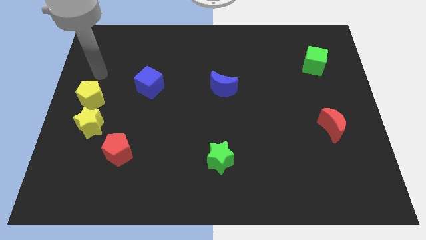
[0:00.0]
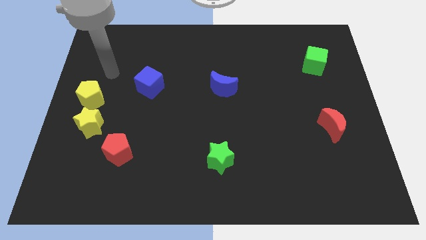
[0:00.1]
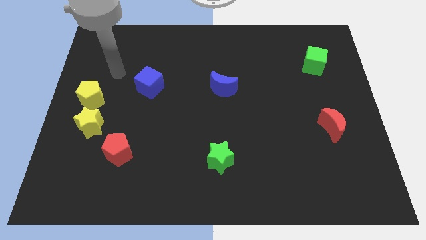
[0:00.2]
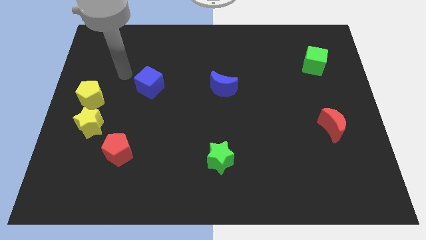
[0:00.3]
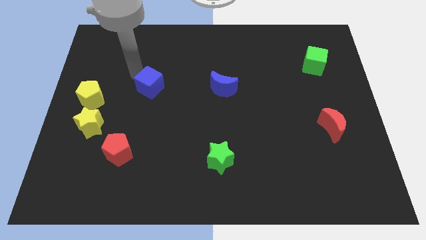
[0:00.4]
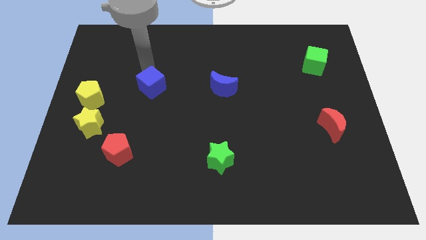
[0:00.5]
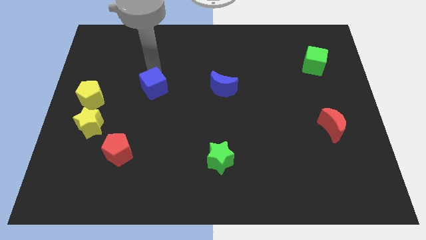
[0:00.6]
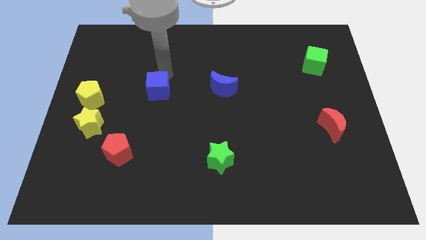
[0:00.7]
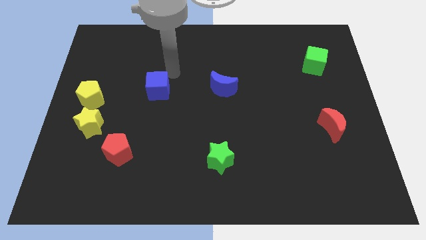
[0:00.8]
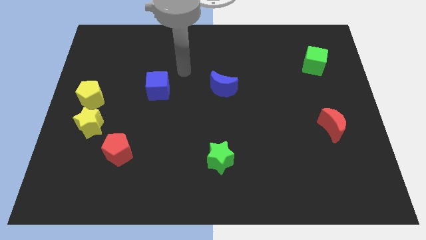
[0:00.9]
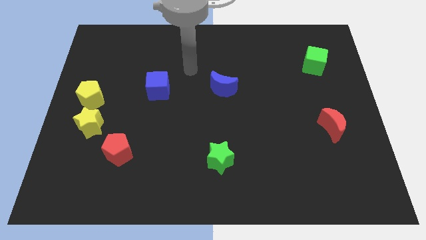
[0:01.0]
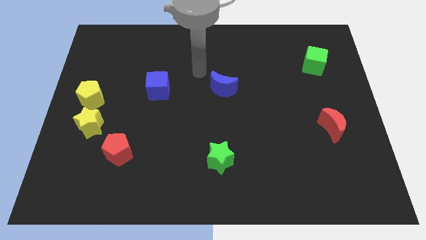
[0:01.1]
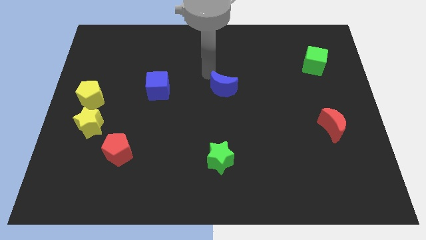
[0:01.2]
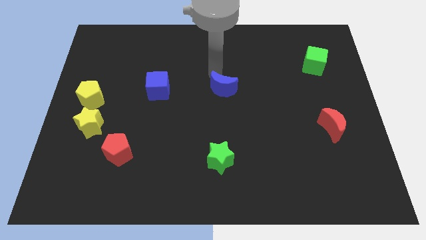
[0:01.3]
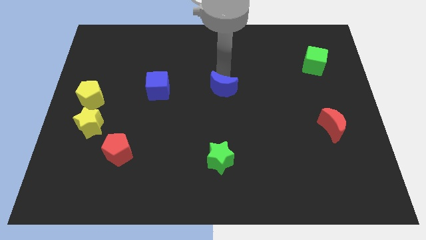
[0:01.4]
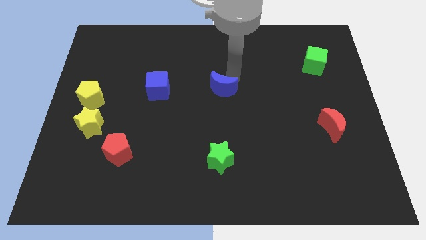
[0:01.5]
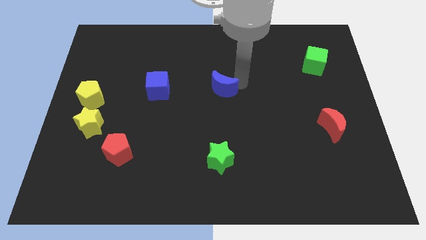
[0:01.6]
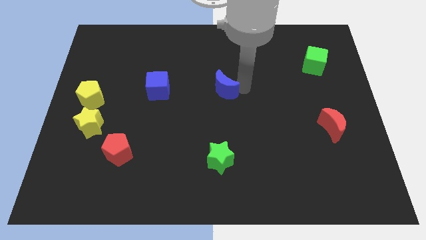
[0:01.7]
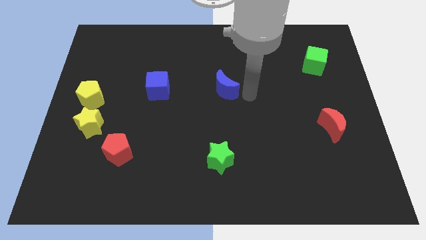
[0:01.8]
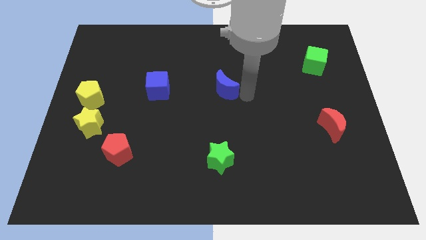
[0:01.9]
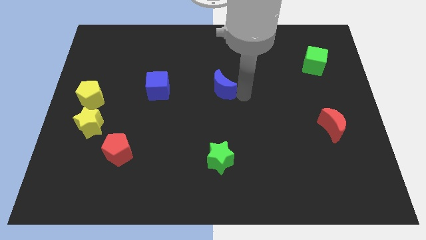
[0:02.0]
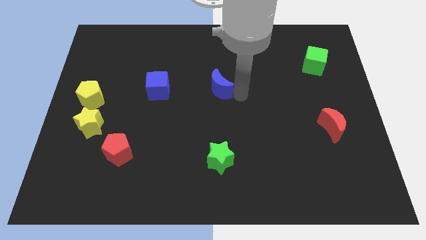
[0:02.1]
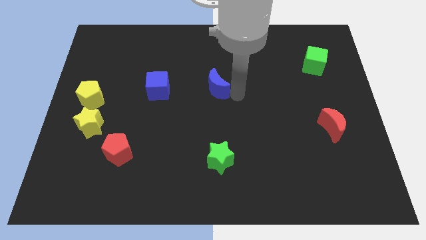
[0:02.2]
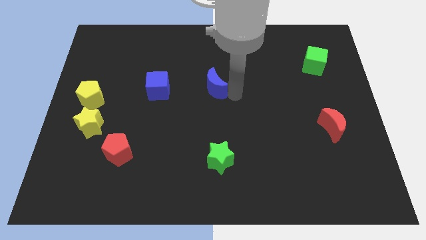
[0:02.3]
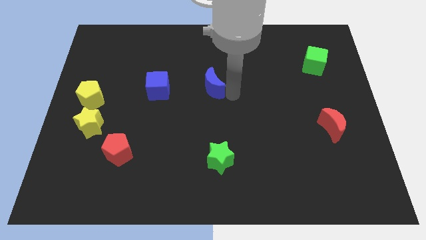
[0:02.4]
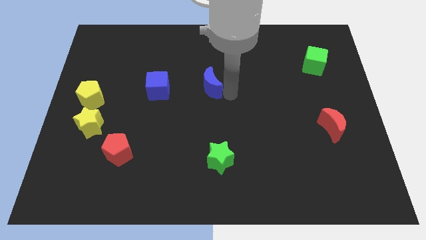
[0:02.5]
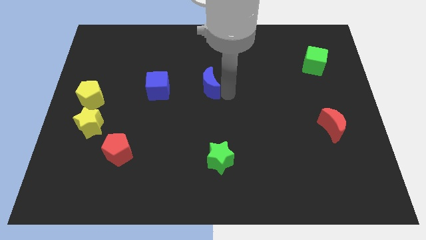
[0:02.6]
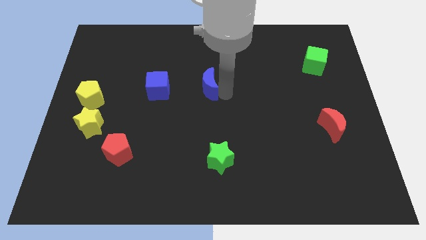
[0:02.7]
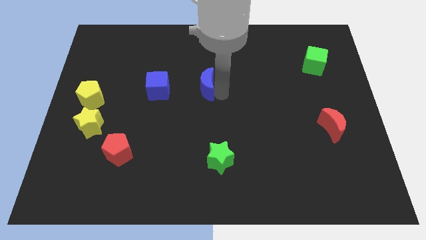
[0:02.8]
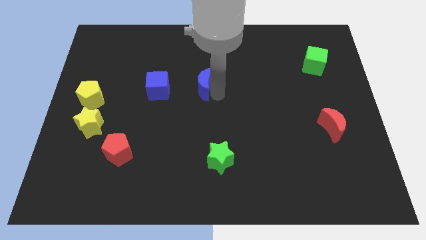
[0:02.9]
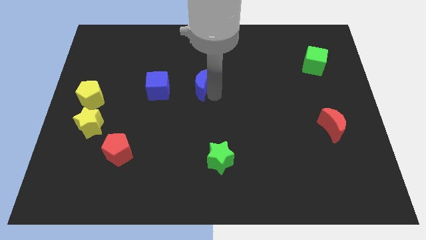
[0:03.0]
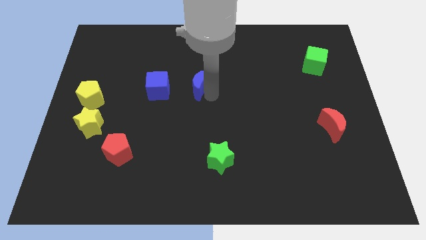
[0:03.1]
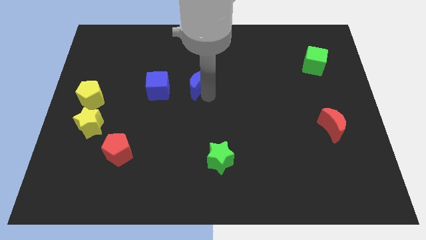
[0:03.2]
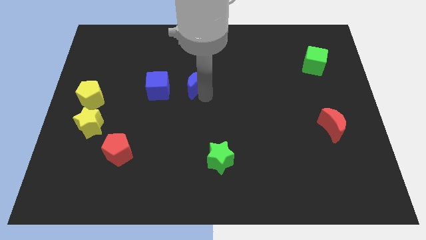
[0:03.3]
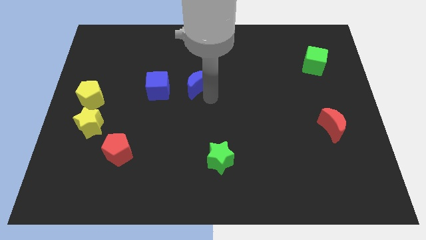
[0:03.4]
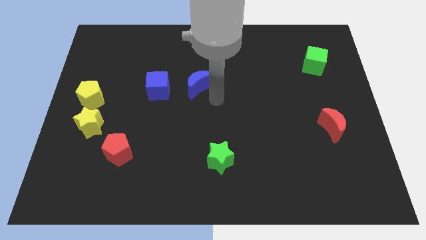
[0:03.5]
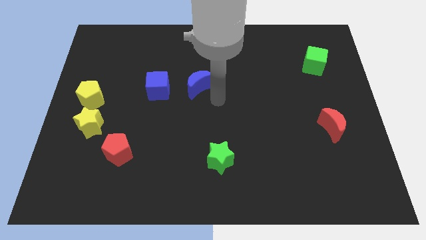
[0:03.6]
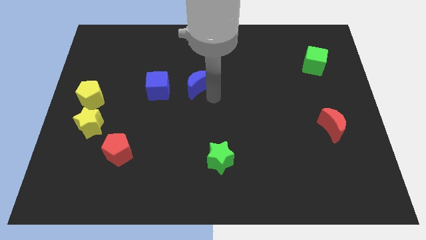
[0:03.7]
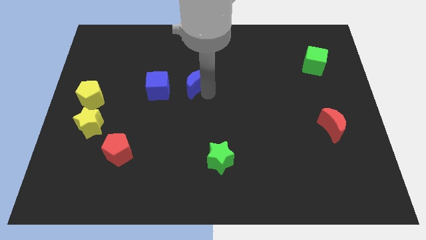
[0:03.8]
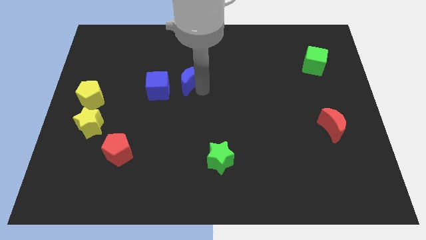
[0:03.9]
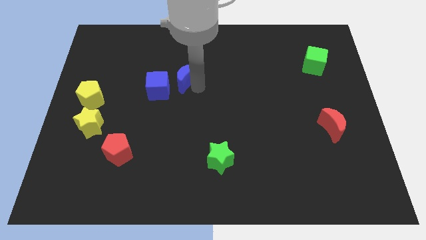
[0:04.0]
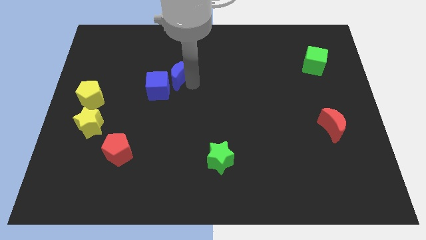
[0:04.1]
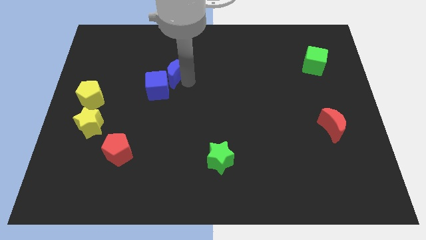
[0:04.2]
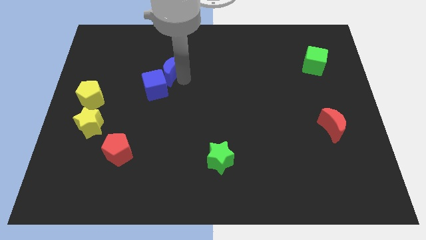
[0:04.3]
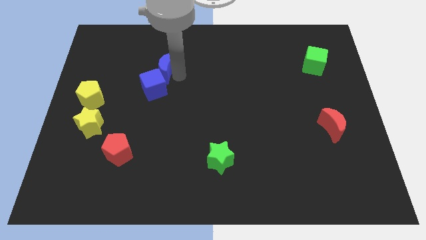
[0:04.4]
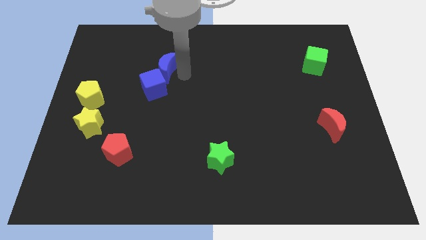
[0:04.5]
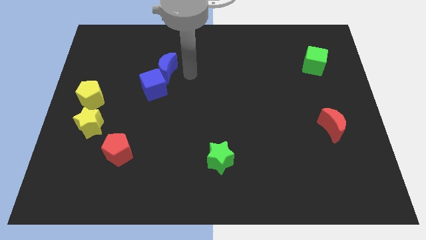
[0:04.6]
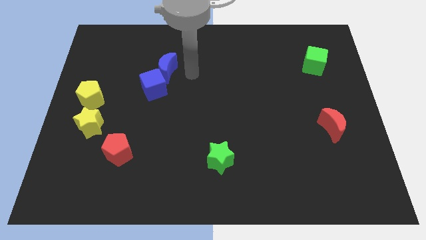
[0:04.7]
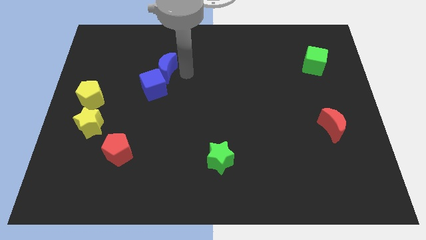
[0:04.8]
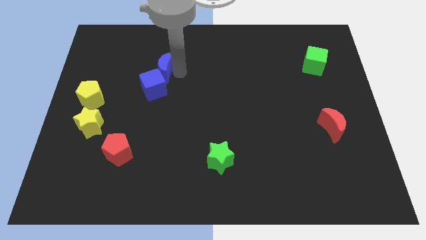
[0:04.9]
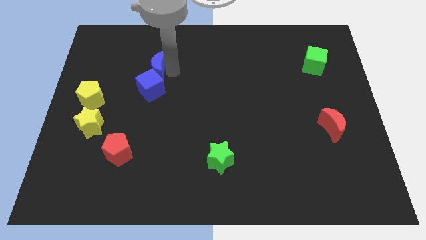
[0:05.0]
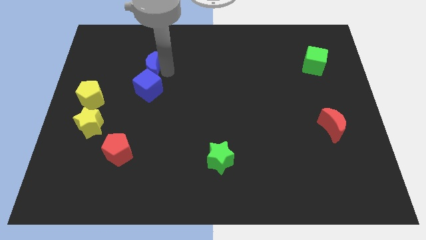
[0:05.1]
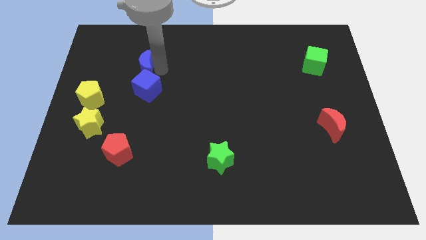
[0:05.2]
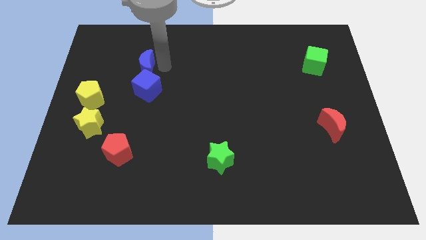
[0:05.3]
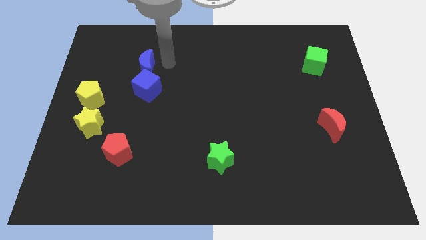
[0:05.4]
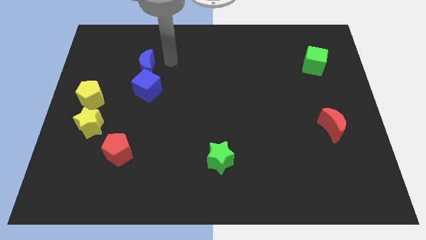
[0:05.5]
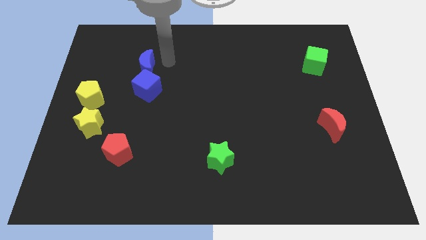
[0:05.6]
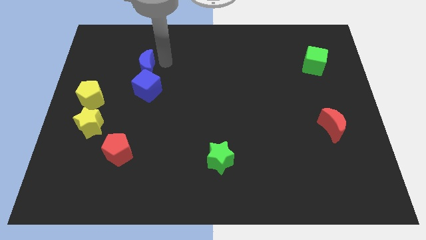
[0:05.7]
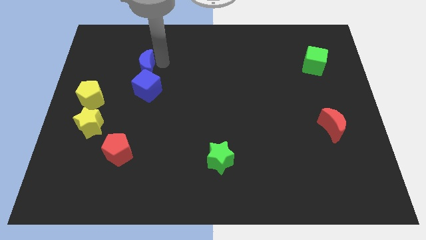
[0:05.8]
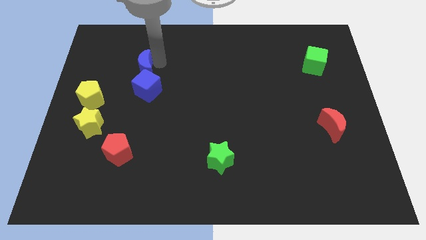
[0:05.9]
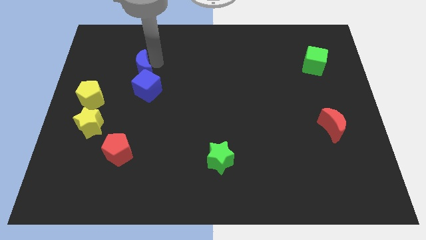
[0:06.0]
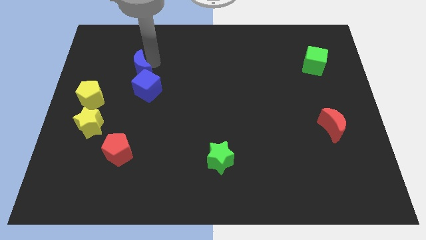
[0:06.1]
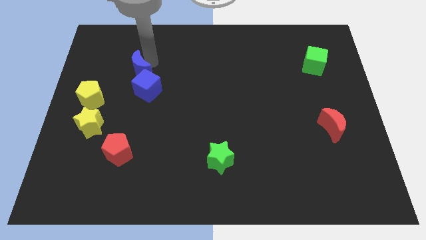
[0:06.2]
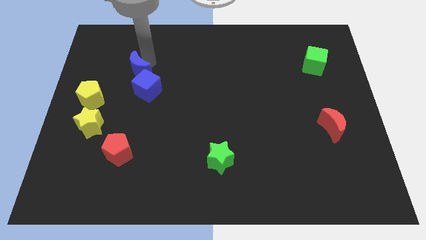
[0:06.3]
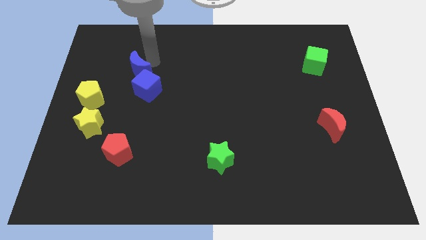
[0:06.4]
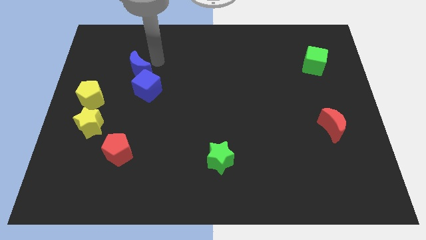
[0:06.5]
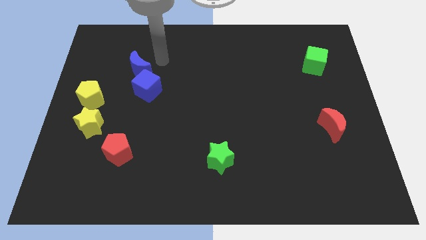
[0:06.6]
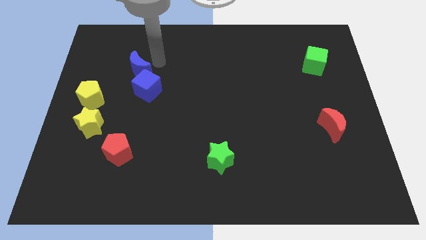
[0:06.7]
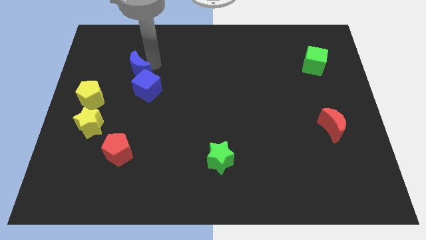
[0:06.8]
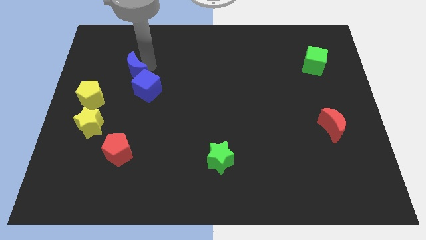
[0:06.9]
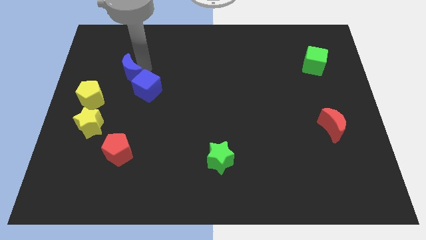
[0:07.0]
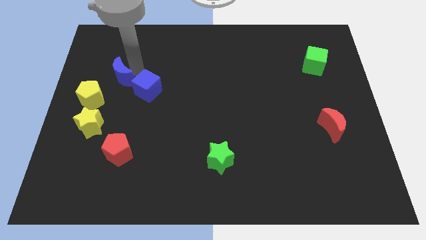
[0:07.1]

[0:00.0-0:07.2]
move the blue moon left of the blue cube
